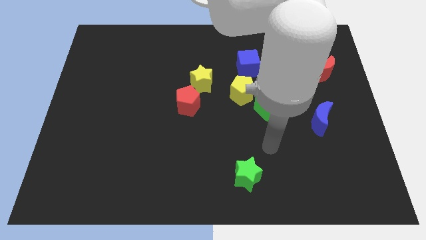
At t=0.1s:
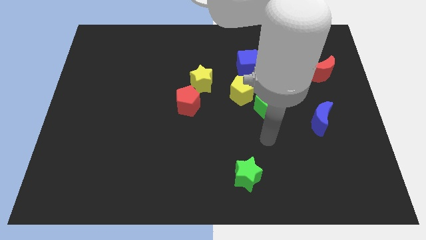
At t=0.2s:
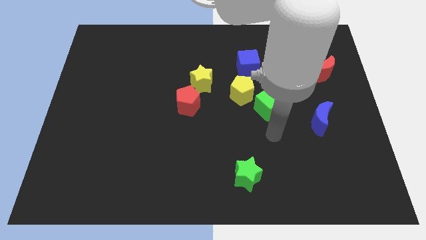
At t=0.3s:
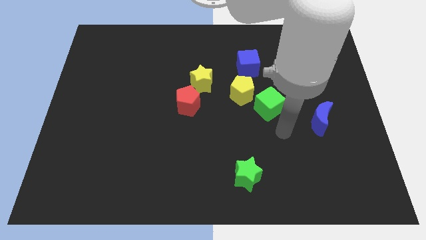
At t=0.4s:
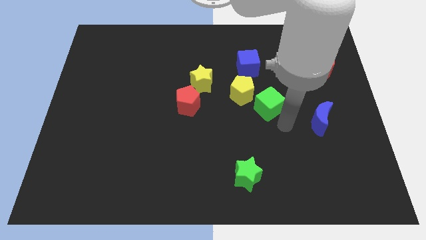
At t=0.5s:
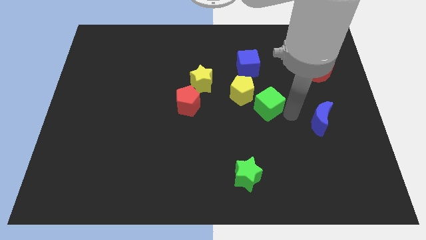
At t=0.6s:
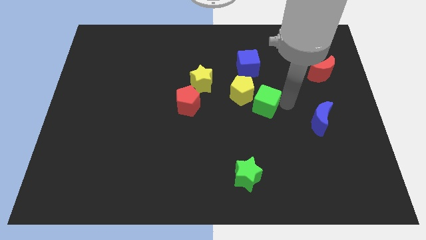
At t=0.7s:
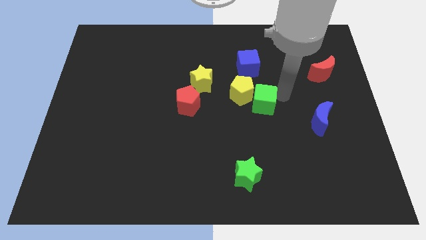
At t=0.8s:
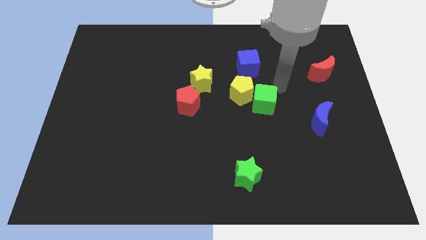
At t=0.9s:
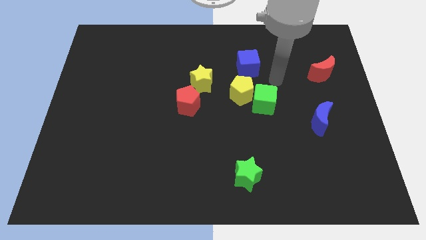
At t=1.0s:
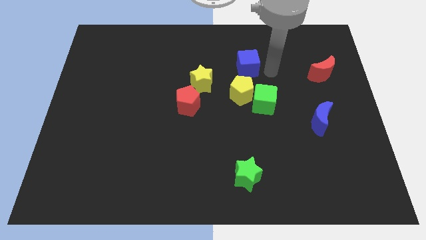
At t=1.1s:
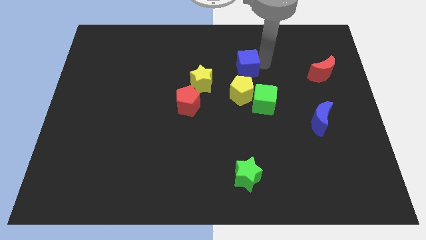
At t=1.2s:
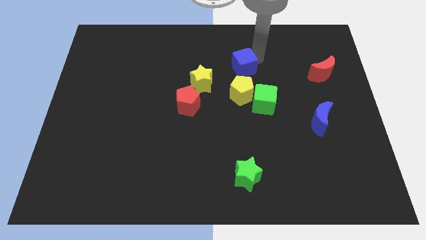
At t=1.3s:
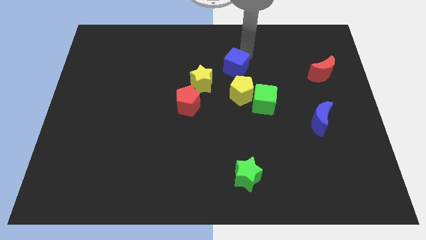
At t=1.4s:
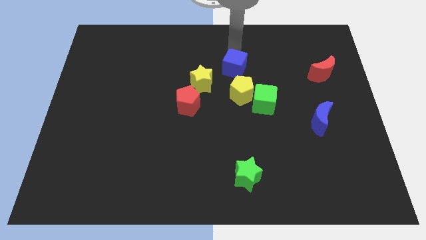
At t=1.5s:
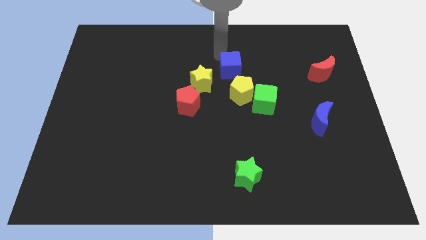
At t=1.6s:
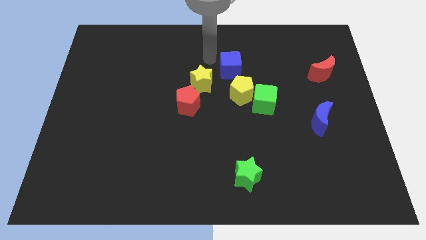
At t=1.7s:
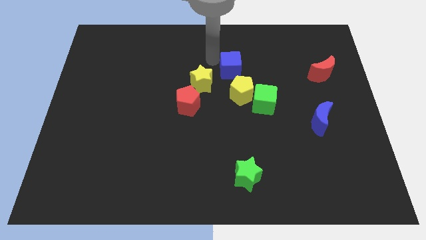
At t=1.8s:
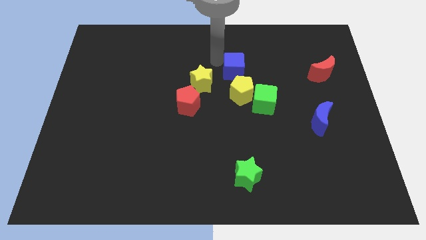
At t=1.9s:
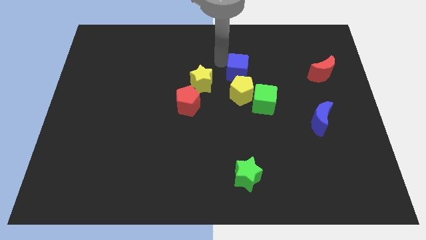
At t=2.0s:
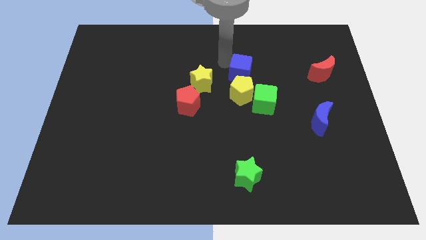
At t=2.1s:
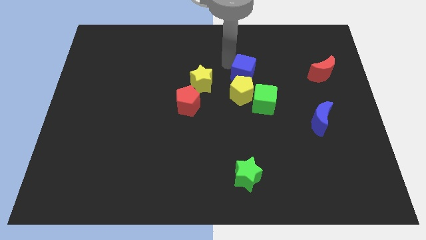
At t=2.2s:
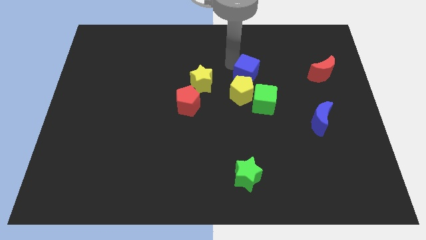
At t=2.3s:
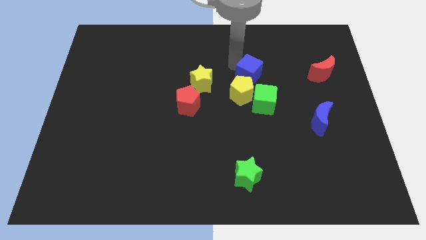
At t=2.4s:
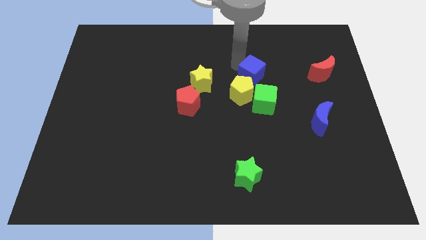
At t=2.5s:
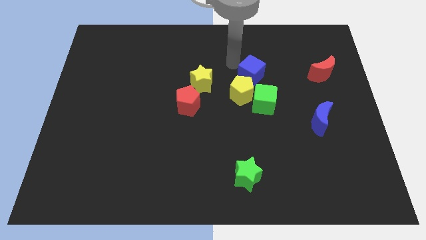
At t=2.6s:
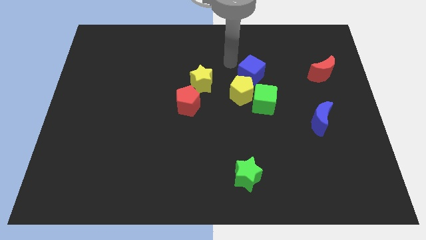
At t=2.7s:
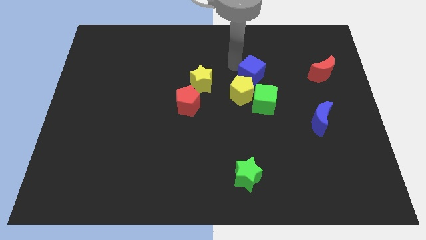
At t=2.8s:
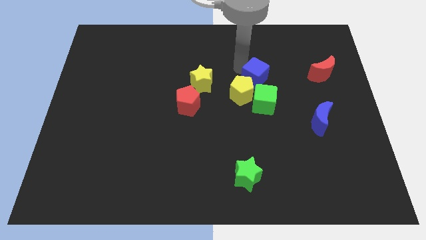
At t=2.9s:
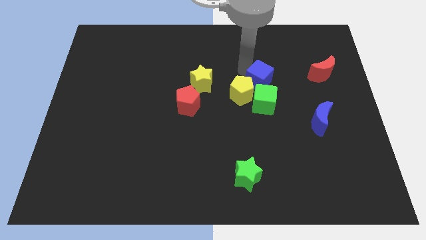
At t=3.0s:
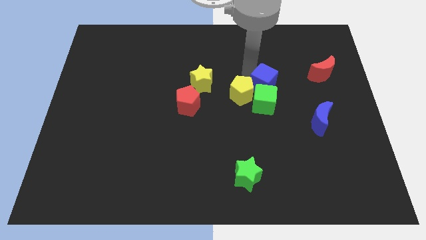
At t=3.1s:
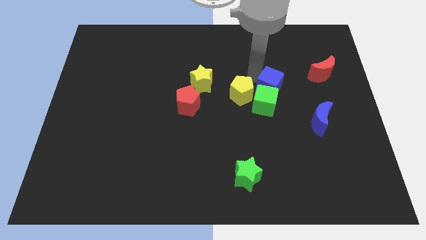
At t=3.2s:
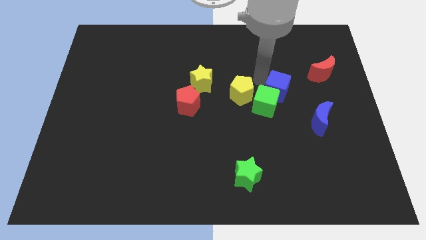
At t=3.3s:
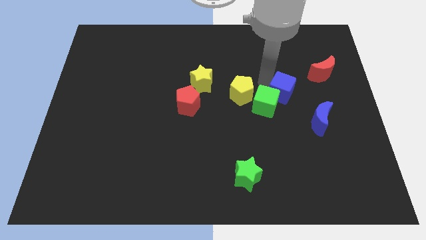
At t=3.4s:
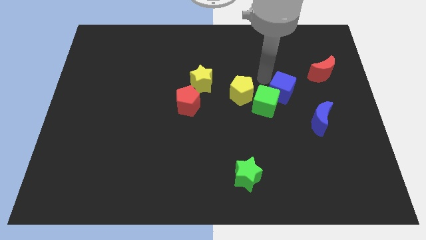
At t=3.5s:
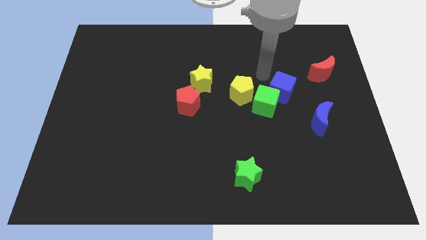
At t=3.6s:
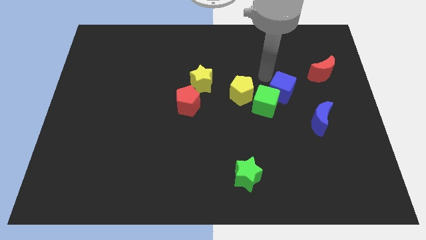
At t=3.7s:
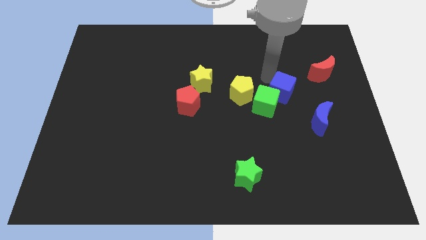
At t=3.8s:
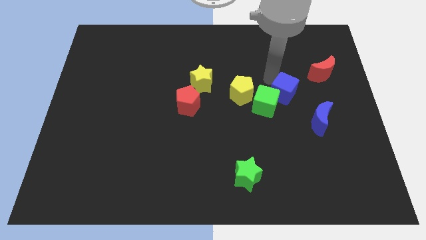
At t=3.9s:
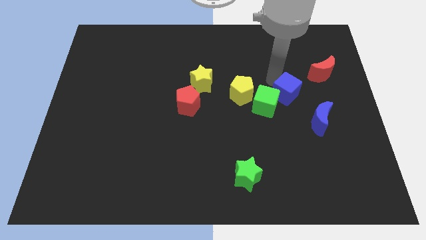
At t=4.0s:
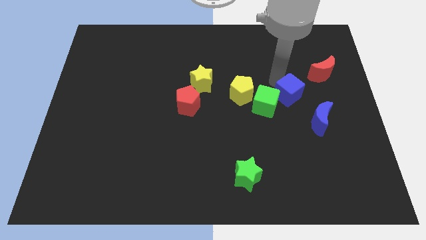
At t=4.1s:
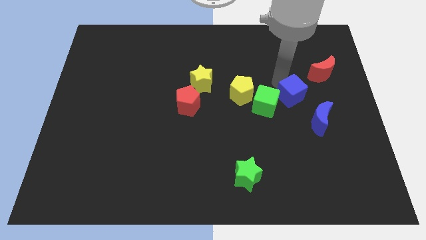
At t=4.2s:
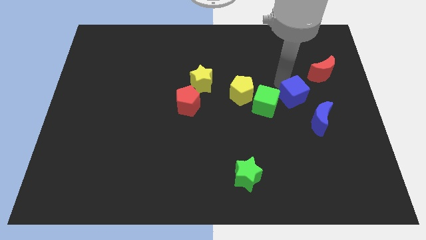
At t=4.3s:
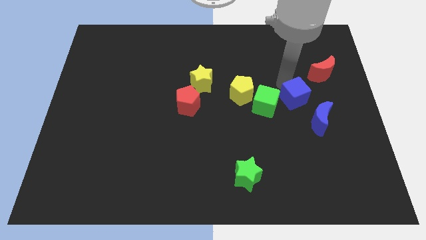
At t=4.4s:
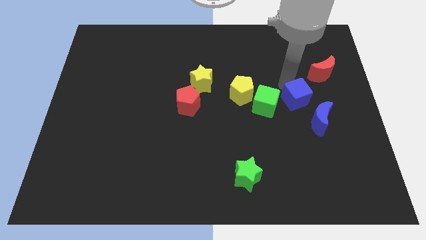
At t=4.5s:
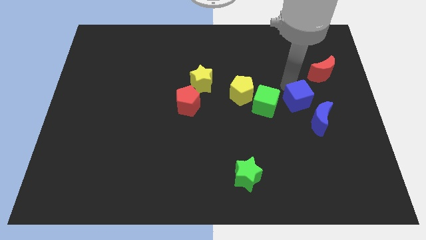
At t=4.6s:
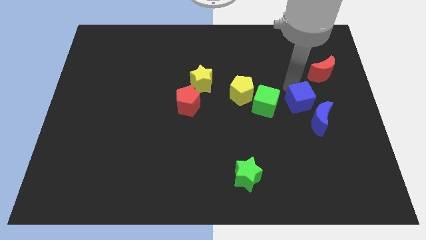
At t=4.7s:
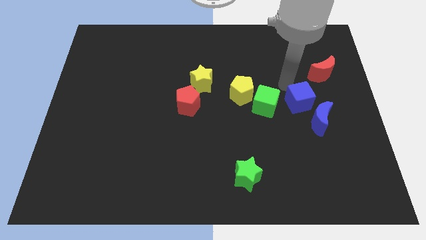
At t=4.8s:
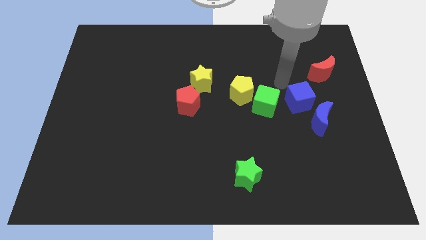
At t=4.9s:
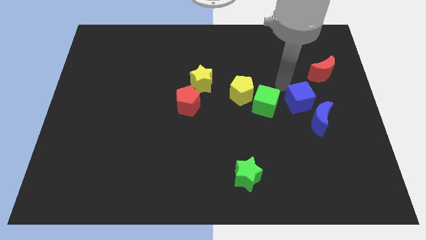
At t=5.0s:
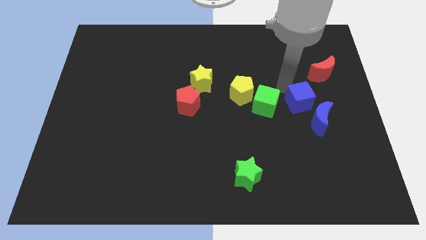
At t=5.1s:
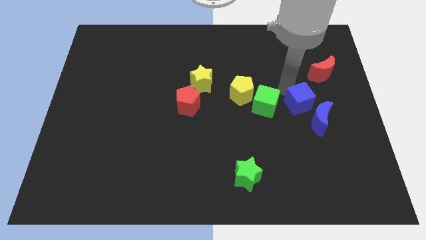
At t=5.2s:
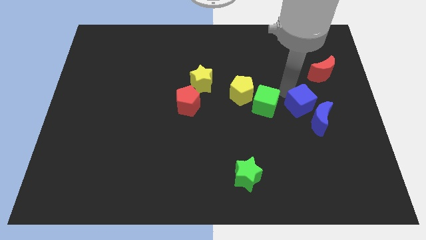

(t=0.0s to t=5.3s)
put the blue cube towards the blue moon

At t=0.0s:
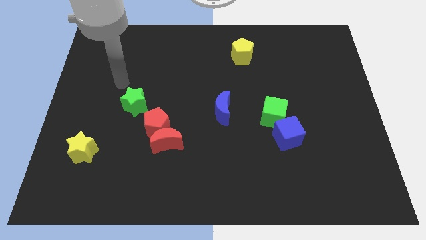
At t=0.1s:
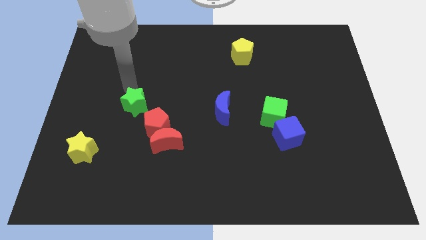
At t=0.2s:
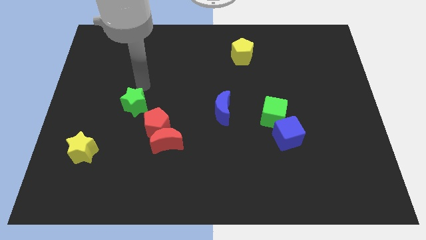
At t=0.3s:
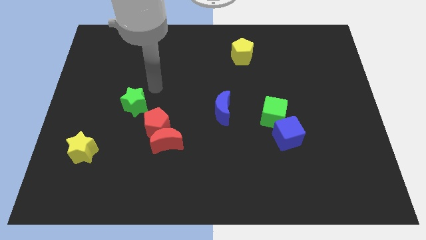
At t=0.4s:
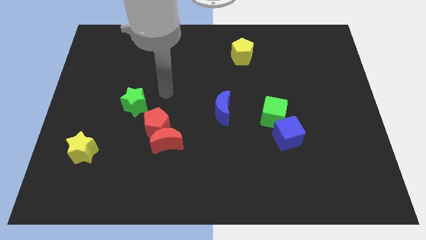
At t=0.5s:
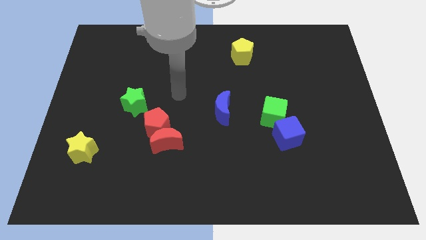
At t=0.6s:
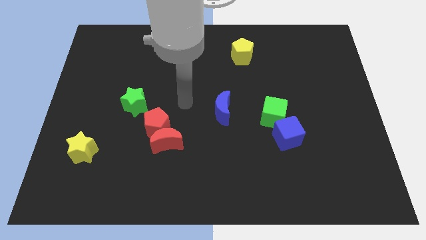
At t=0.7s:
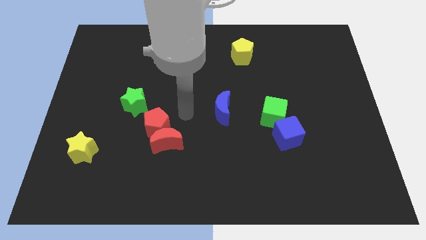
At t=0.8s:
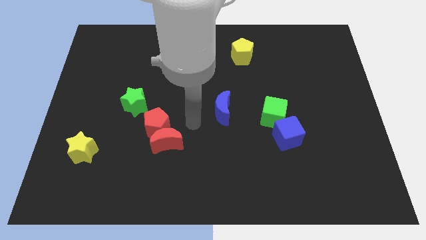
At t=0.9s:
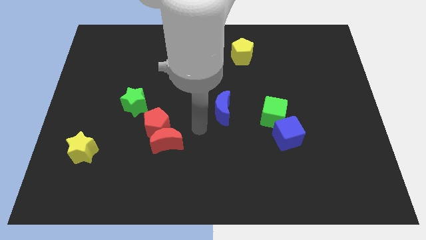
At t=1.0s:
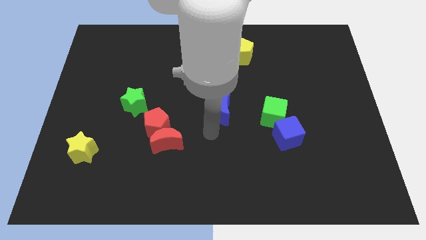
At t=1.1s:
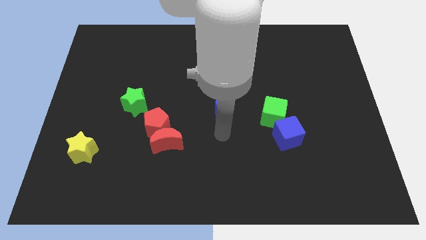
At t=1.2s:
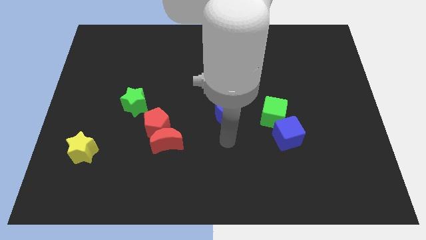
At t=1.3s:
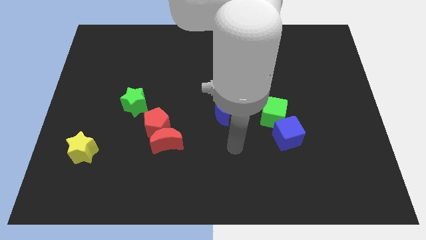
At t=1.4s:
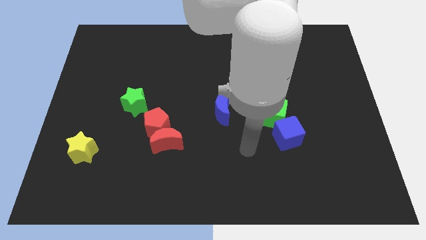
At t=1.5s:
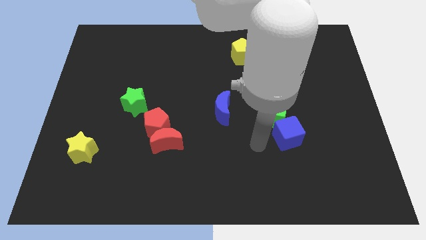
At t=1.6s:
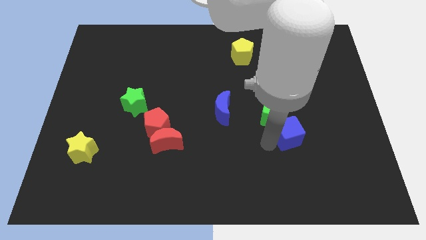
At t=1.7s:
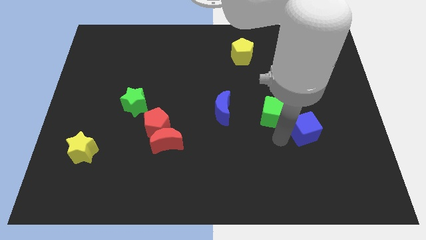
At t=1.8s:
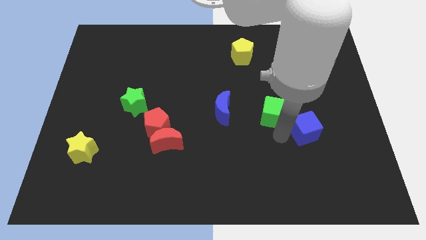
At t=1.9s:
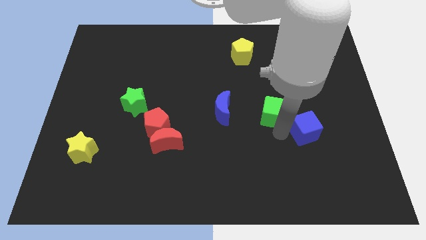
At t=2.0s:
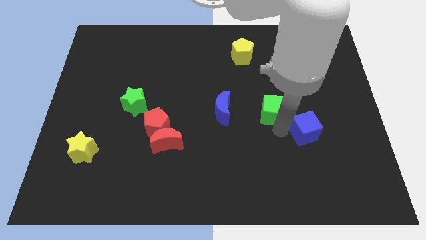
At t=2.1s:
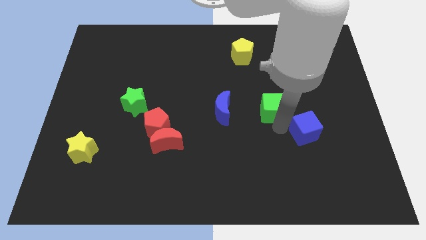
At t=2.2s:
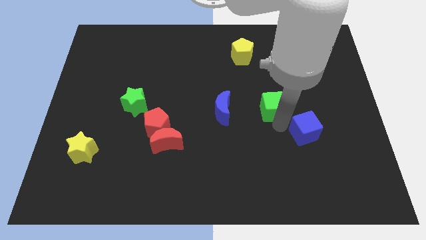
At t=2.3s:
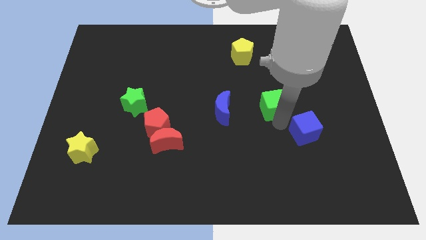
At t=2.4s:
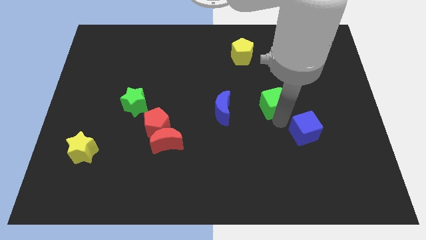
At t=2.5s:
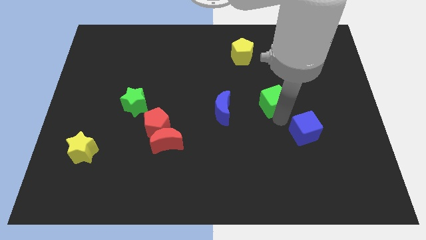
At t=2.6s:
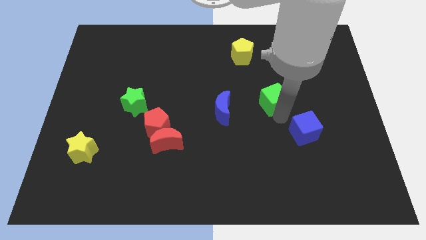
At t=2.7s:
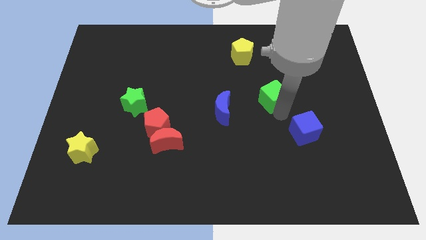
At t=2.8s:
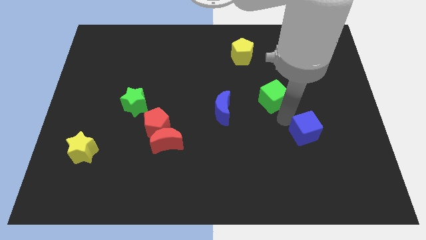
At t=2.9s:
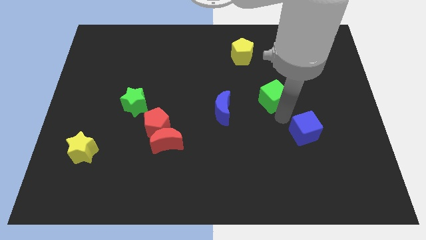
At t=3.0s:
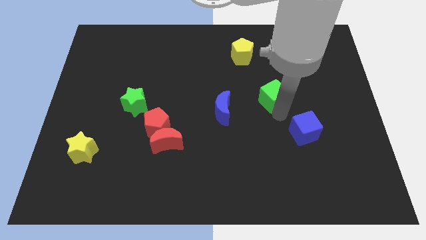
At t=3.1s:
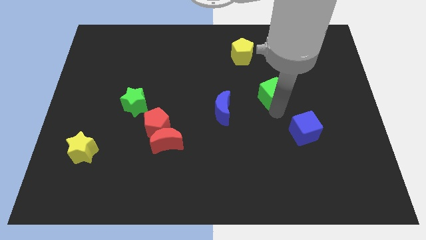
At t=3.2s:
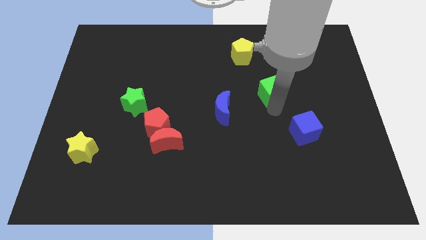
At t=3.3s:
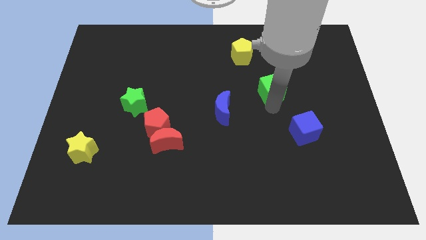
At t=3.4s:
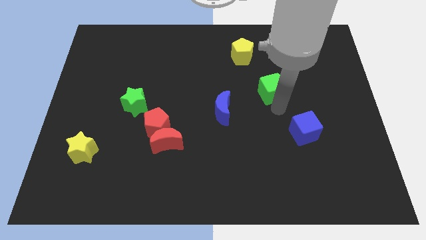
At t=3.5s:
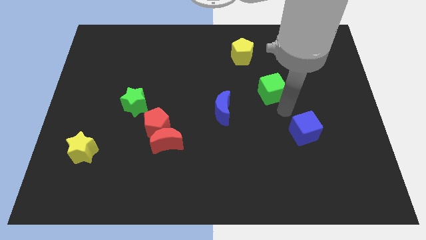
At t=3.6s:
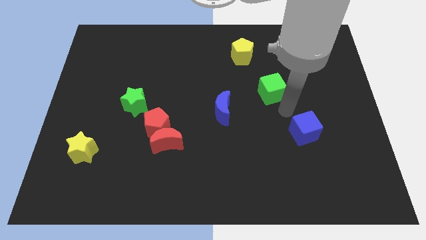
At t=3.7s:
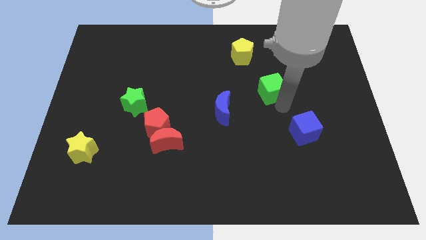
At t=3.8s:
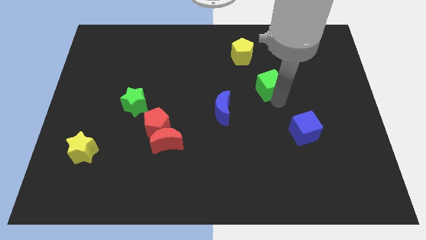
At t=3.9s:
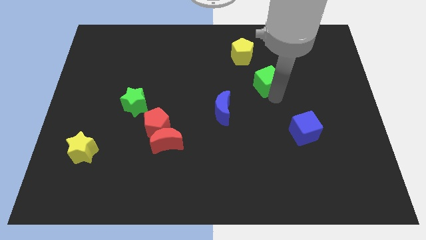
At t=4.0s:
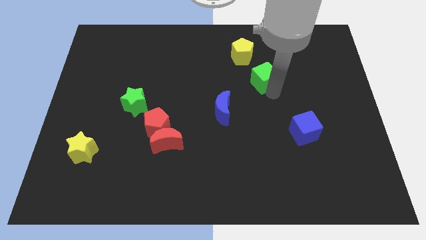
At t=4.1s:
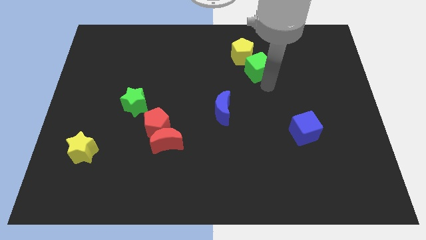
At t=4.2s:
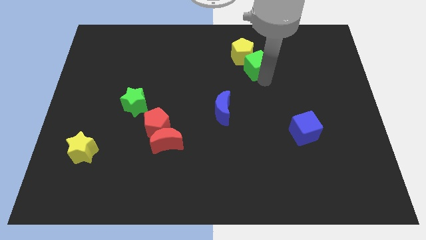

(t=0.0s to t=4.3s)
push the green cube to the yellow pentagon
